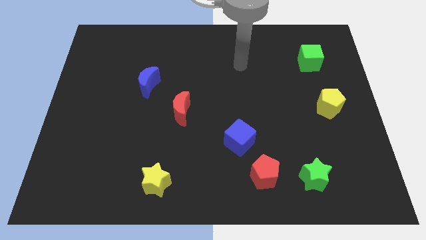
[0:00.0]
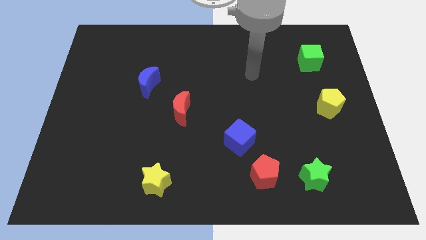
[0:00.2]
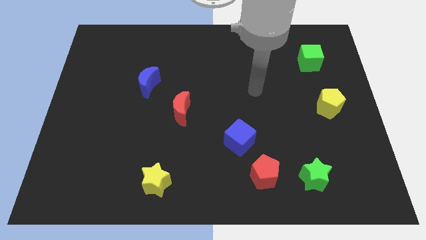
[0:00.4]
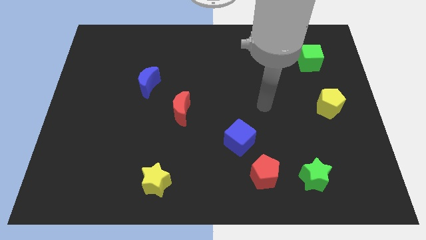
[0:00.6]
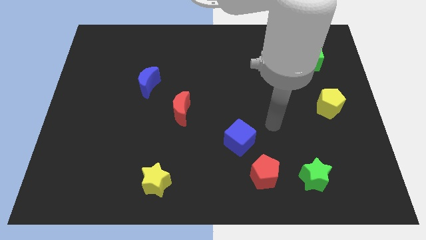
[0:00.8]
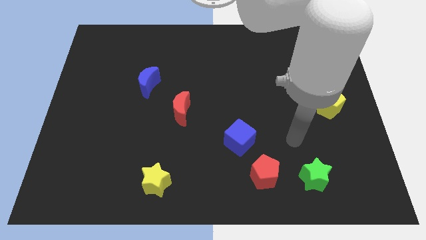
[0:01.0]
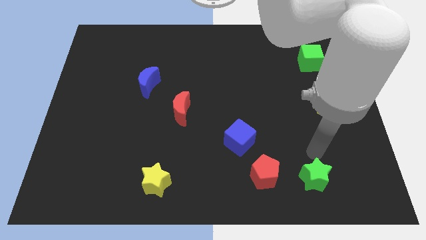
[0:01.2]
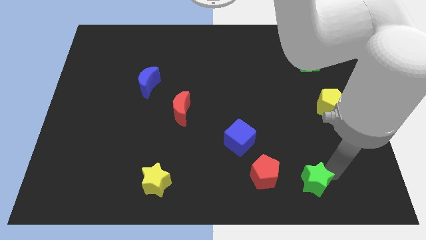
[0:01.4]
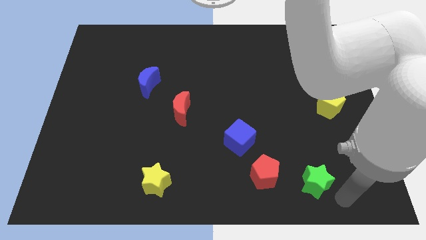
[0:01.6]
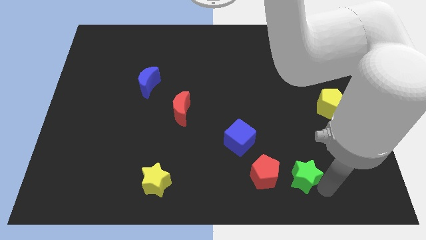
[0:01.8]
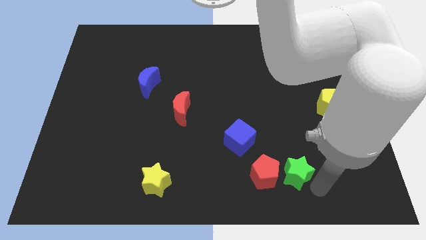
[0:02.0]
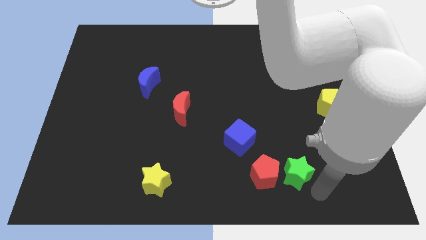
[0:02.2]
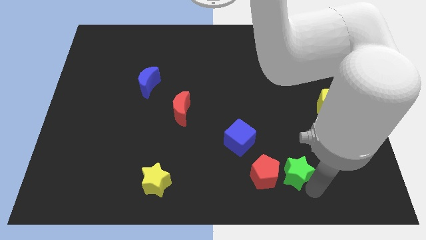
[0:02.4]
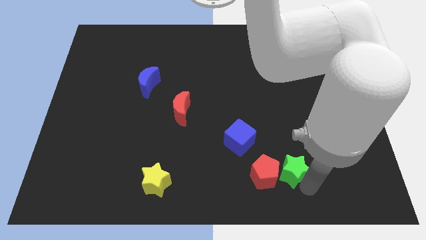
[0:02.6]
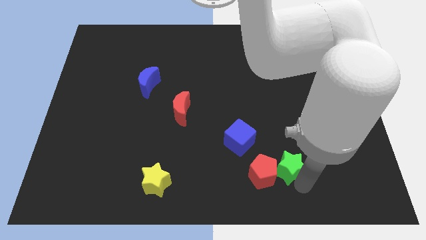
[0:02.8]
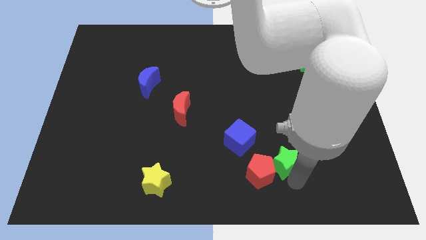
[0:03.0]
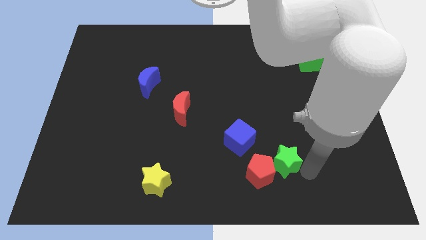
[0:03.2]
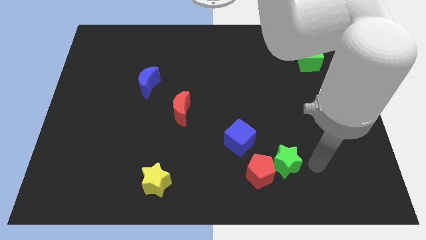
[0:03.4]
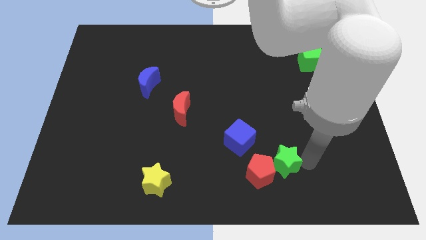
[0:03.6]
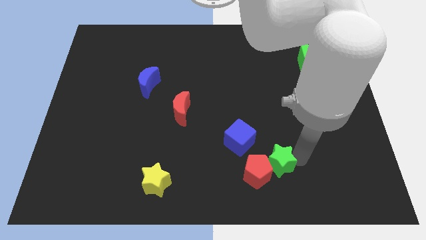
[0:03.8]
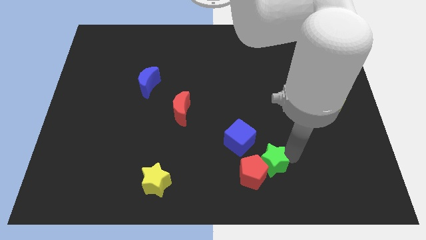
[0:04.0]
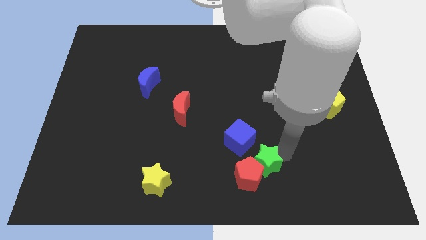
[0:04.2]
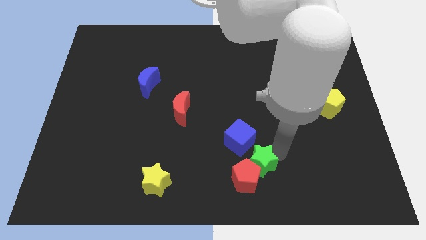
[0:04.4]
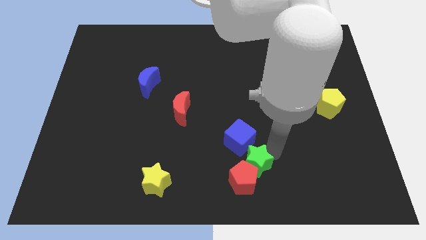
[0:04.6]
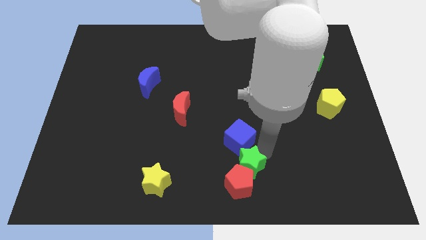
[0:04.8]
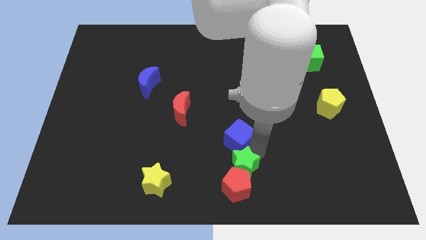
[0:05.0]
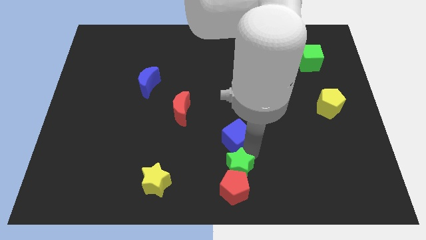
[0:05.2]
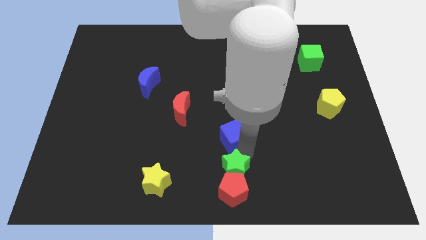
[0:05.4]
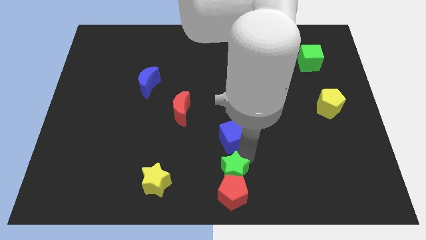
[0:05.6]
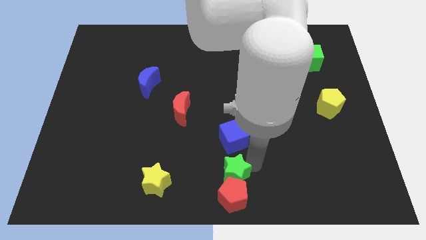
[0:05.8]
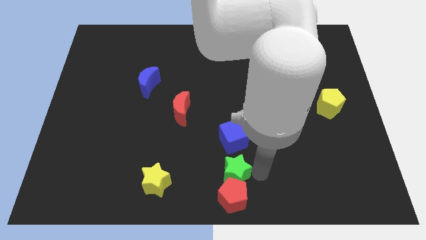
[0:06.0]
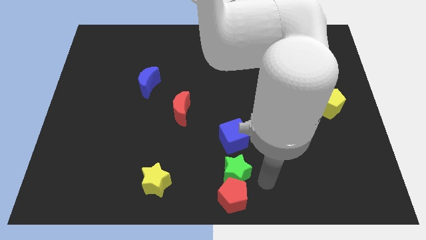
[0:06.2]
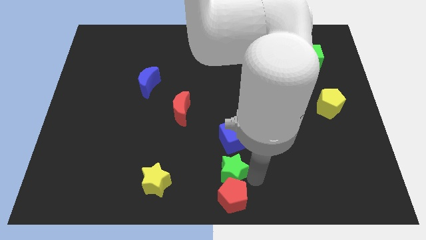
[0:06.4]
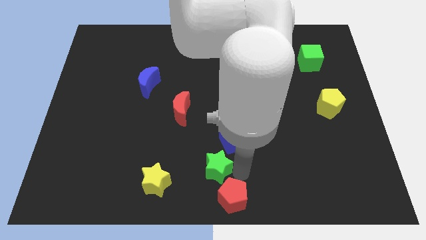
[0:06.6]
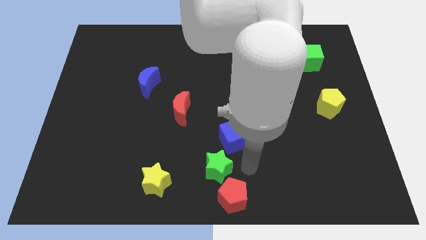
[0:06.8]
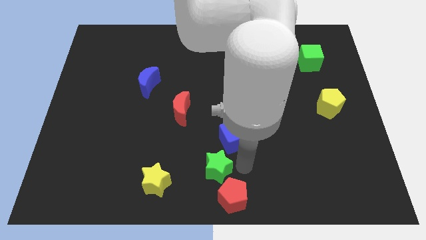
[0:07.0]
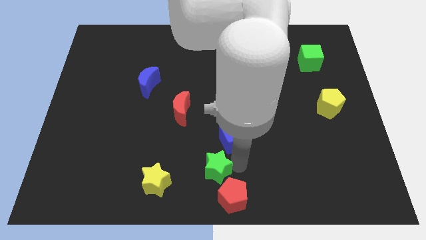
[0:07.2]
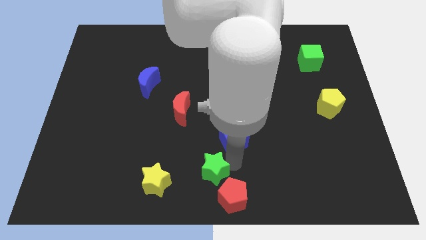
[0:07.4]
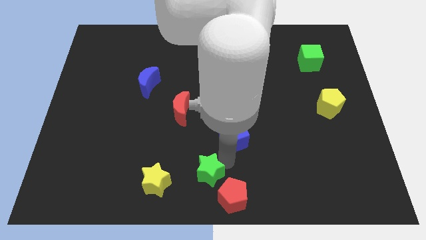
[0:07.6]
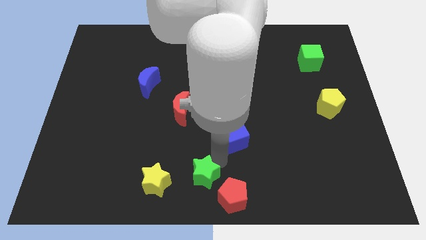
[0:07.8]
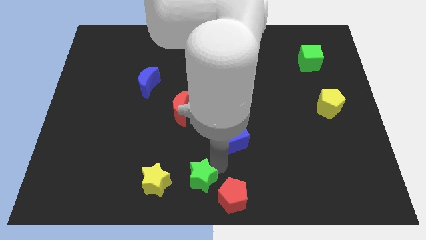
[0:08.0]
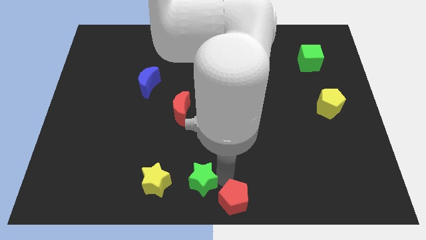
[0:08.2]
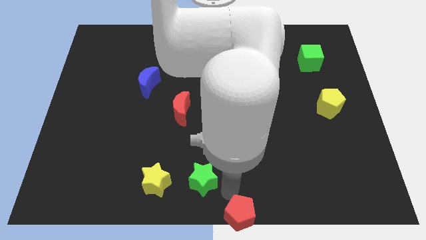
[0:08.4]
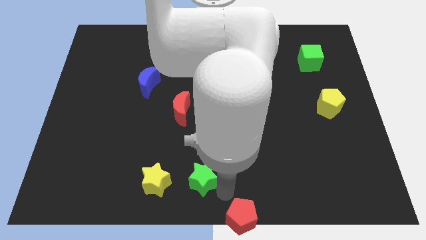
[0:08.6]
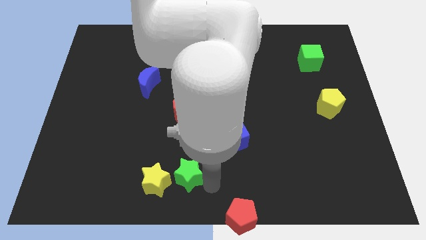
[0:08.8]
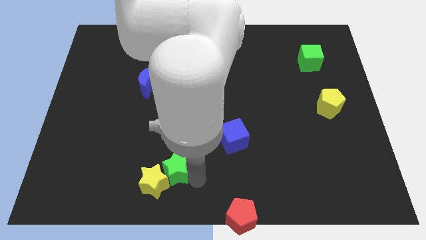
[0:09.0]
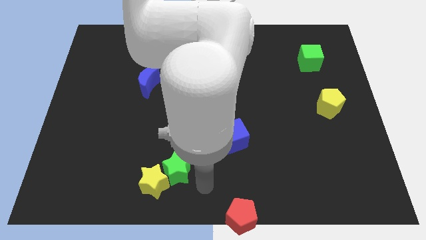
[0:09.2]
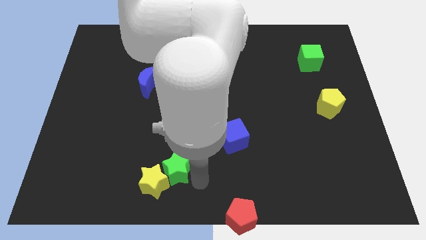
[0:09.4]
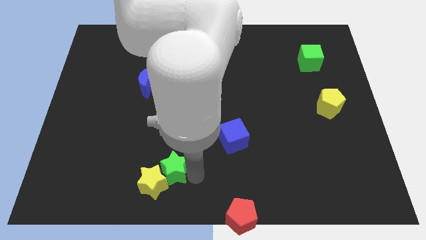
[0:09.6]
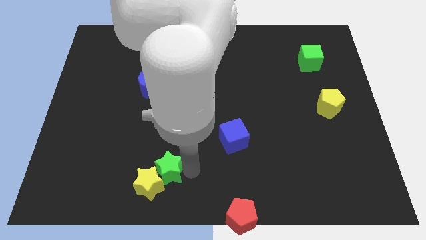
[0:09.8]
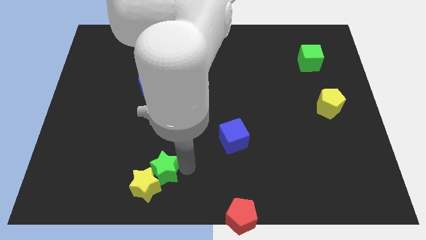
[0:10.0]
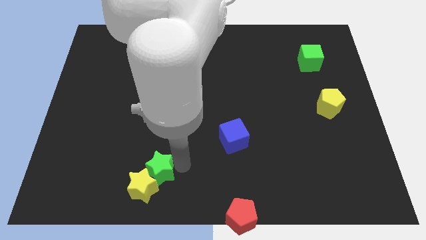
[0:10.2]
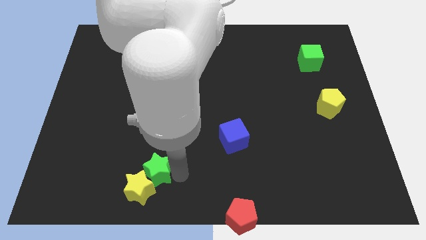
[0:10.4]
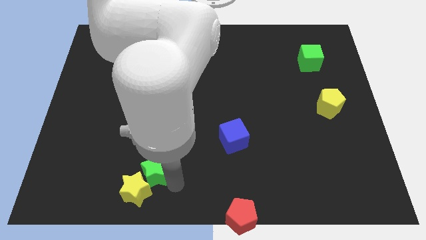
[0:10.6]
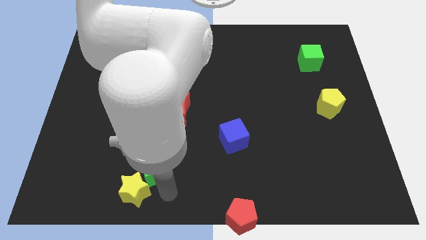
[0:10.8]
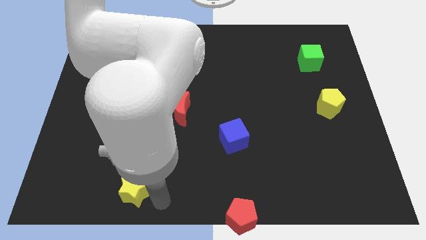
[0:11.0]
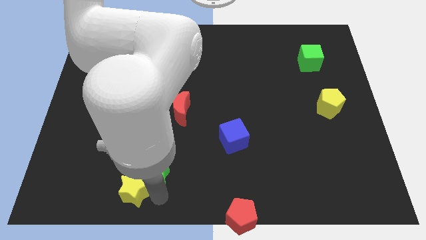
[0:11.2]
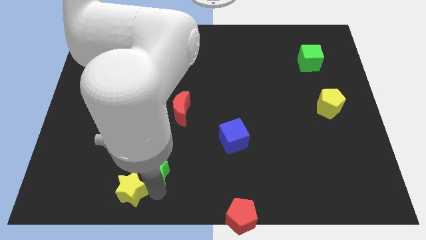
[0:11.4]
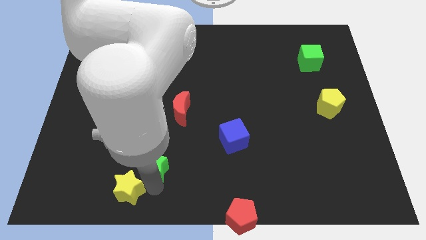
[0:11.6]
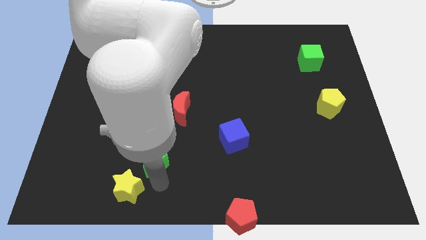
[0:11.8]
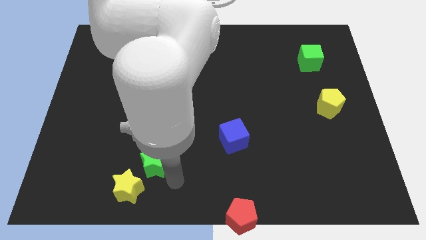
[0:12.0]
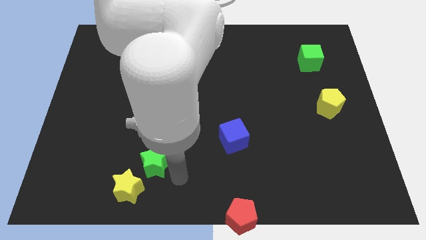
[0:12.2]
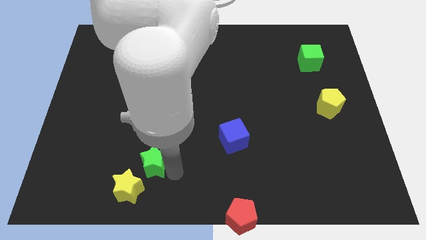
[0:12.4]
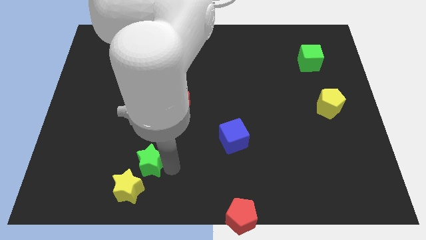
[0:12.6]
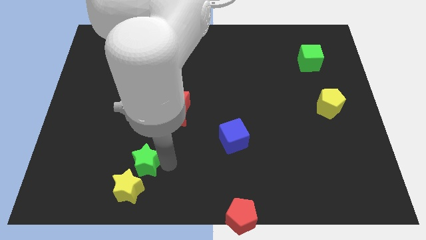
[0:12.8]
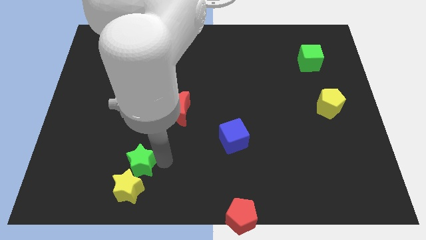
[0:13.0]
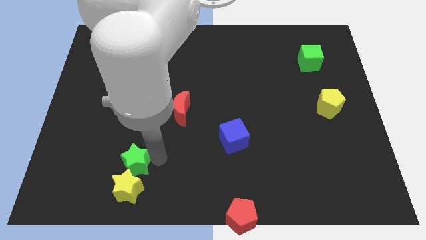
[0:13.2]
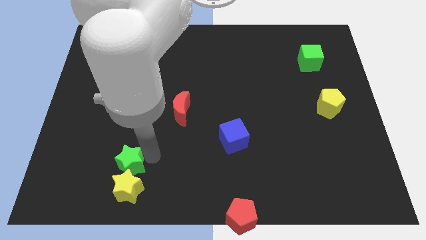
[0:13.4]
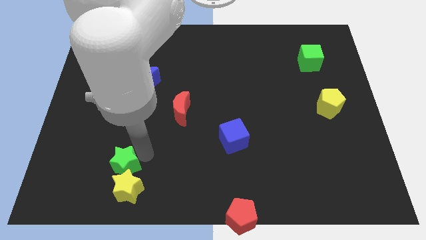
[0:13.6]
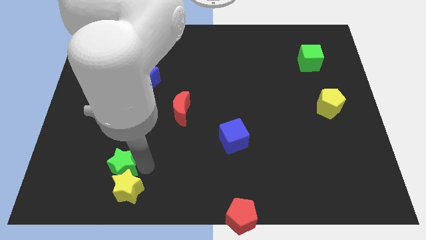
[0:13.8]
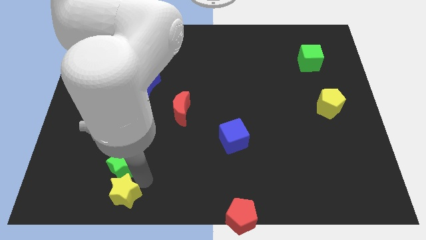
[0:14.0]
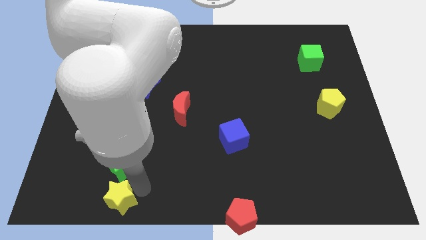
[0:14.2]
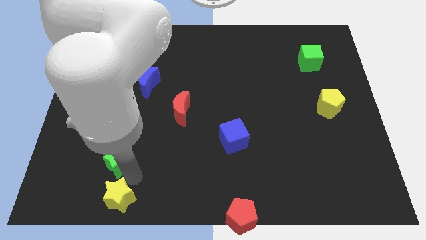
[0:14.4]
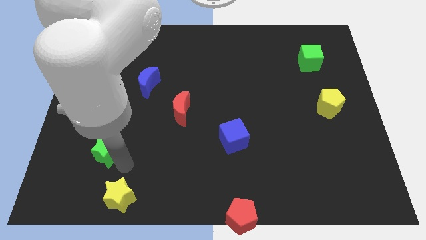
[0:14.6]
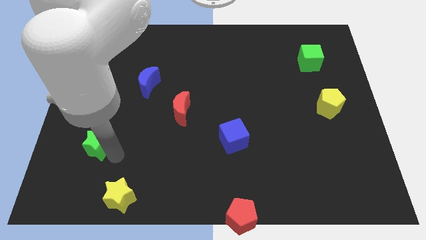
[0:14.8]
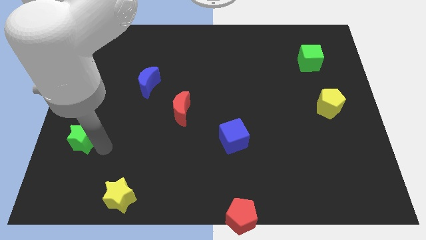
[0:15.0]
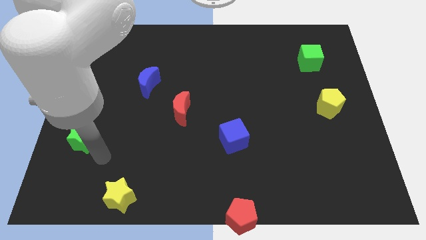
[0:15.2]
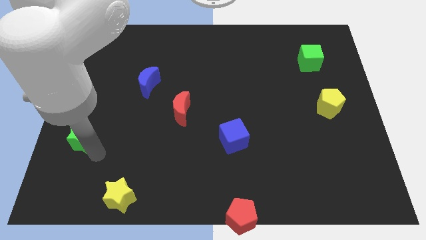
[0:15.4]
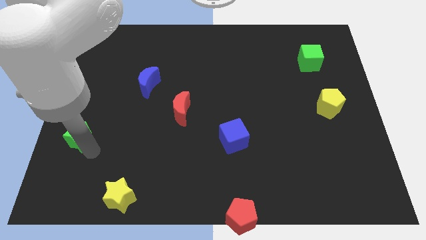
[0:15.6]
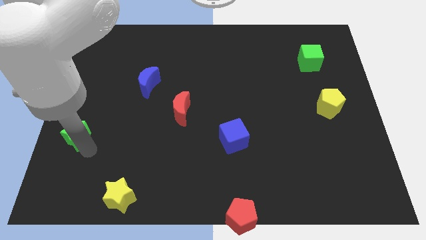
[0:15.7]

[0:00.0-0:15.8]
push the green star to the center left
